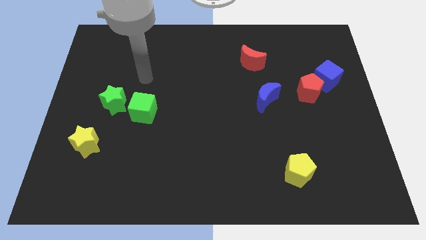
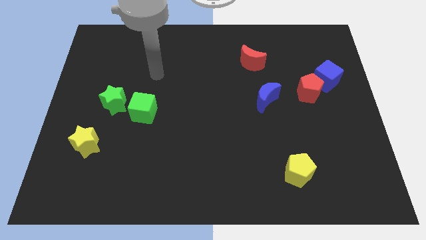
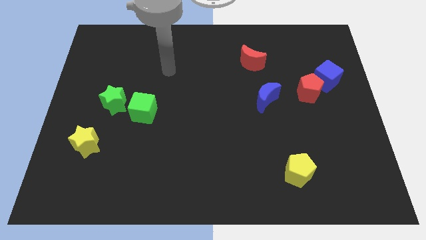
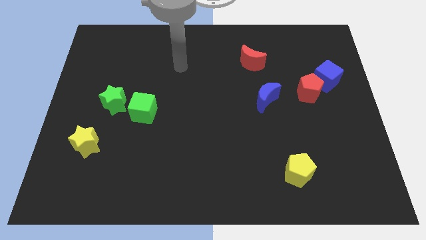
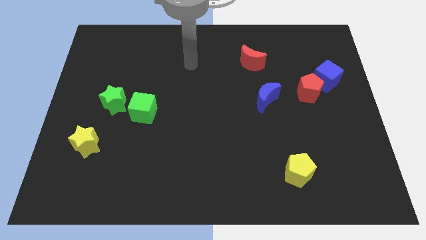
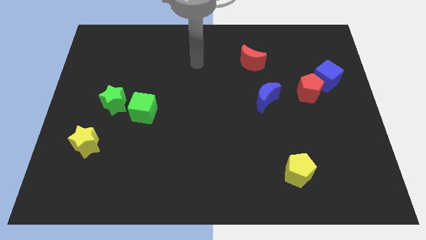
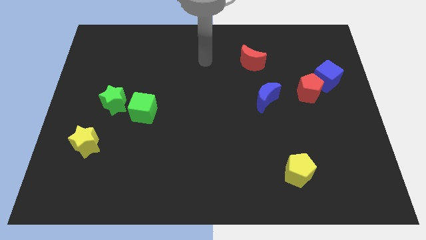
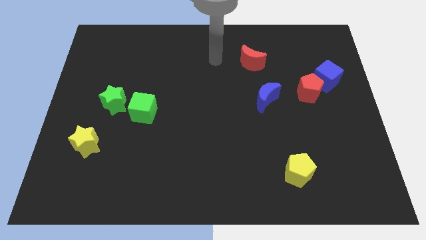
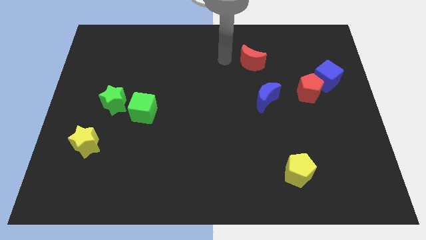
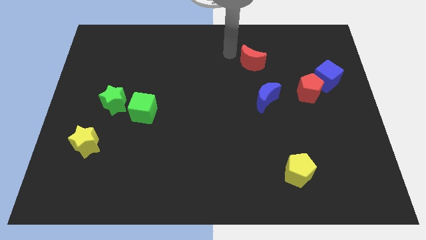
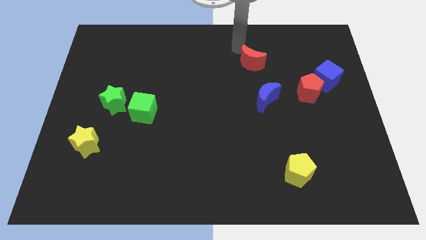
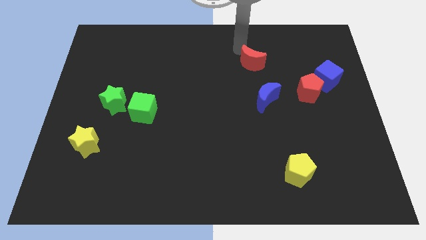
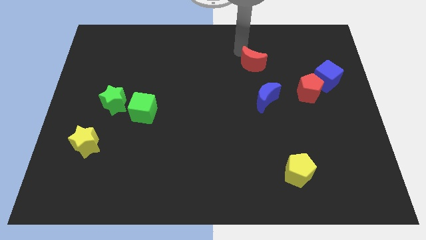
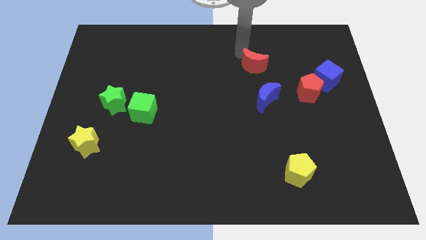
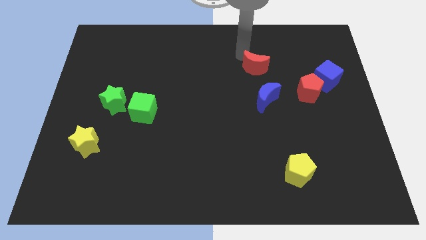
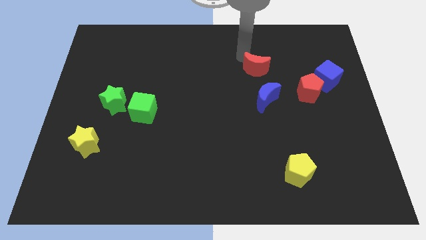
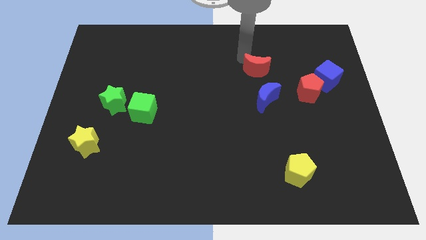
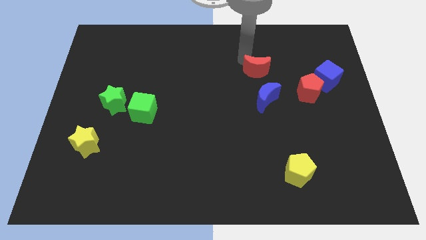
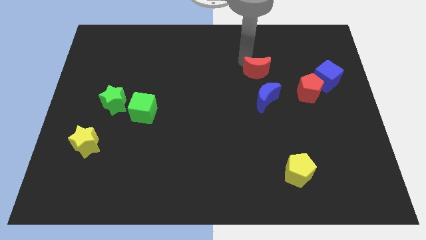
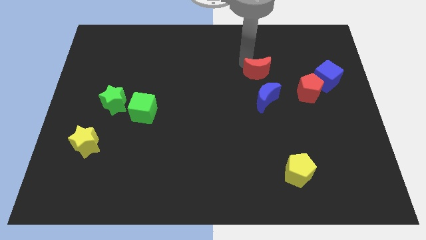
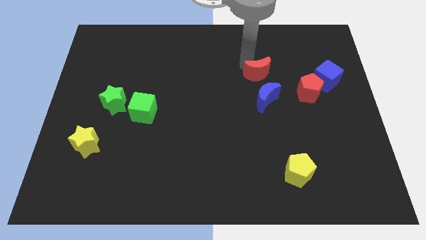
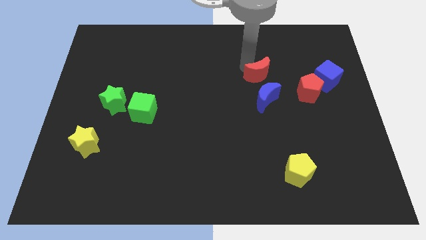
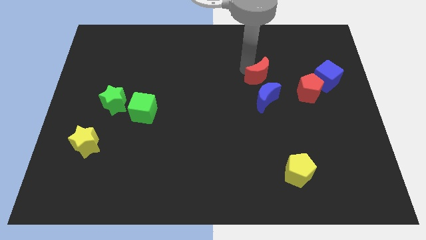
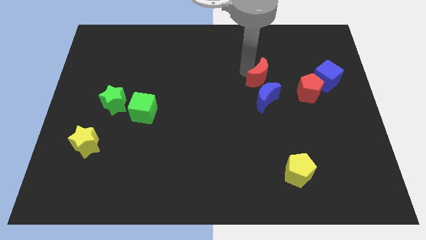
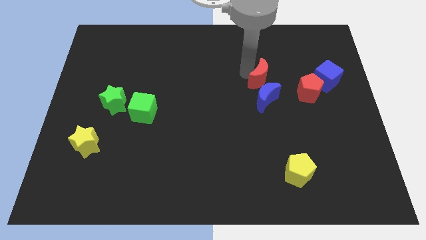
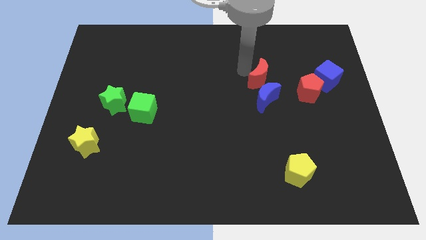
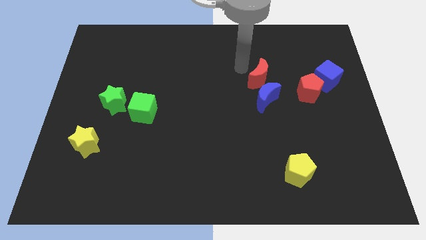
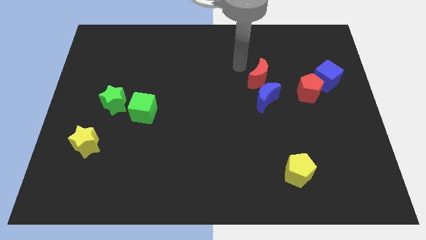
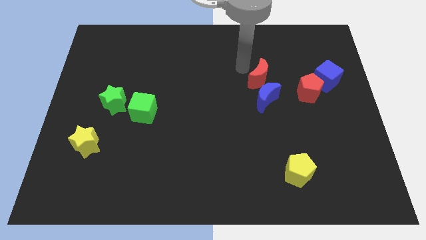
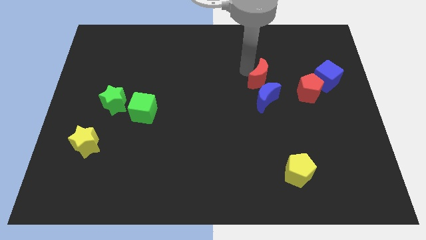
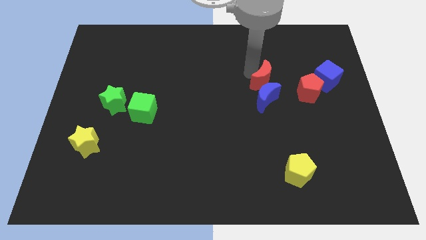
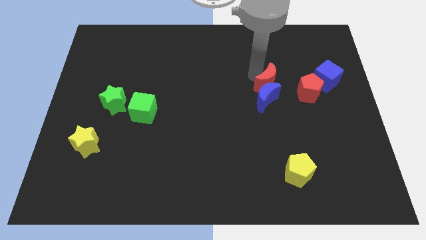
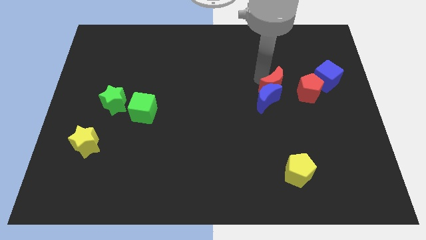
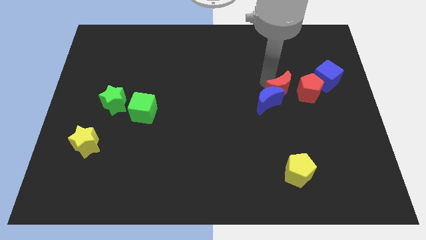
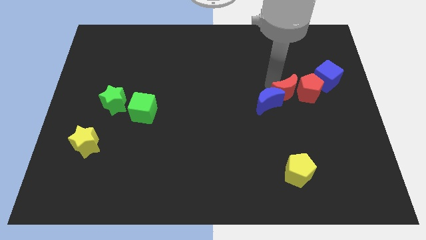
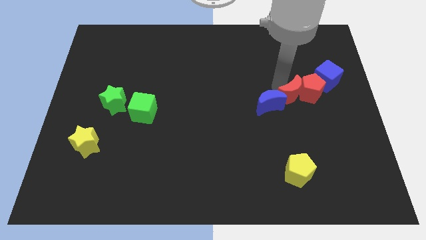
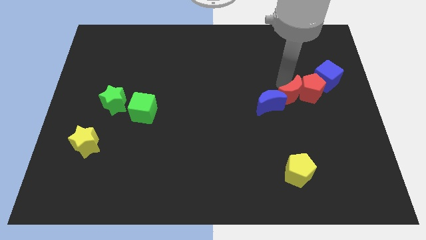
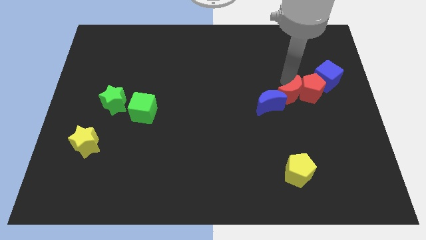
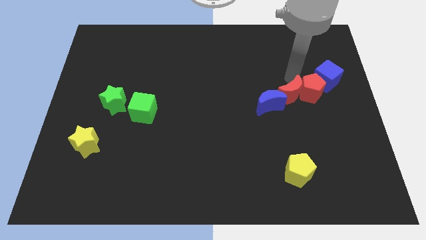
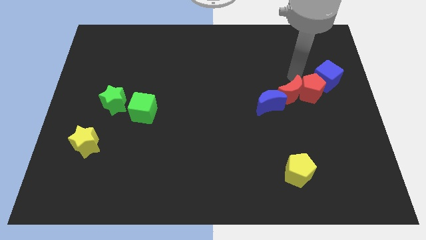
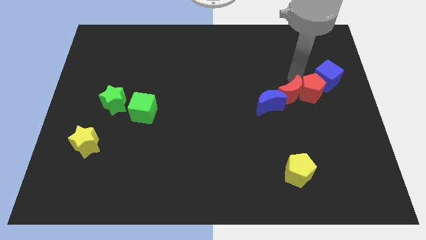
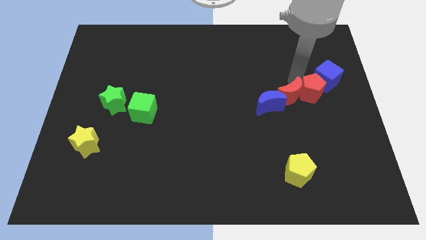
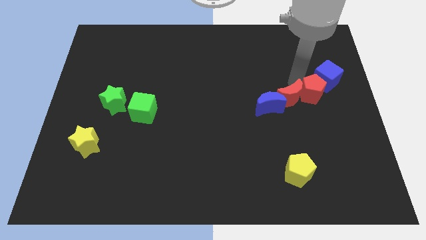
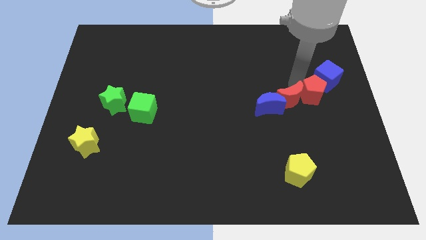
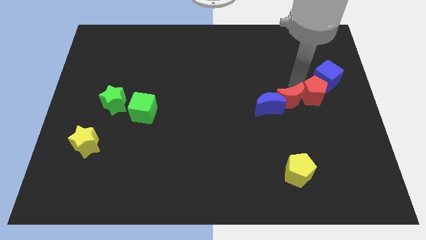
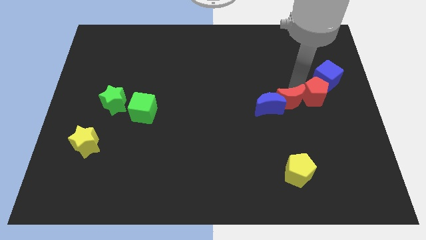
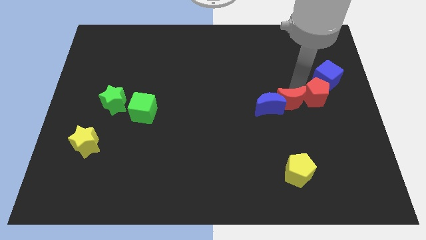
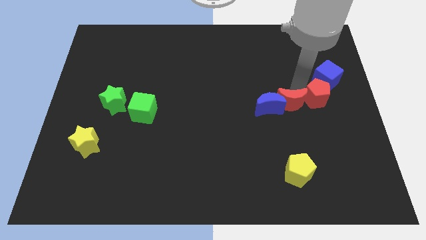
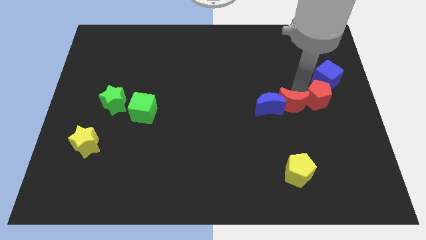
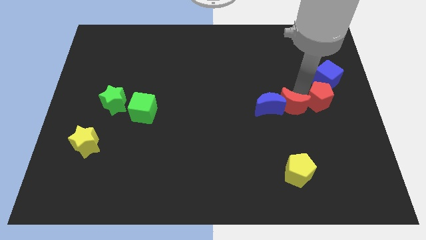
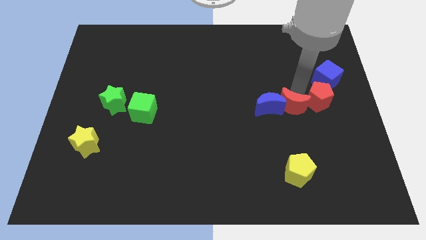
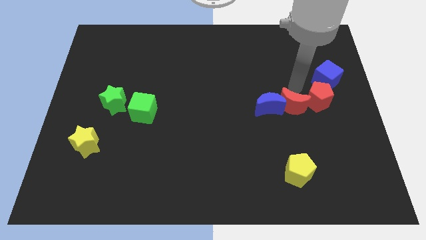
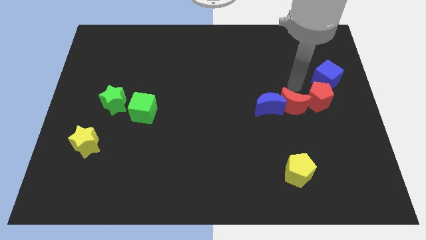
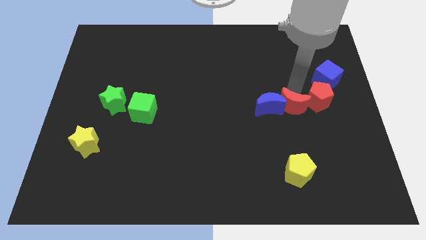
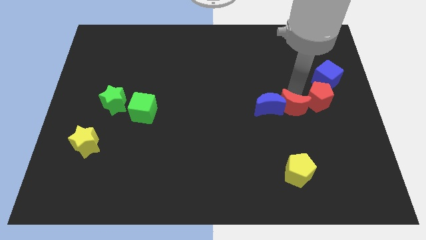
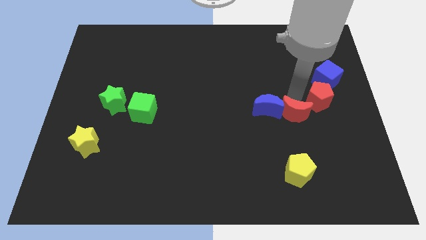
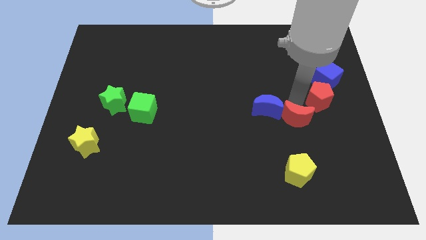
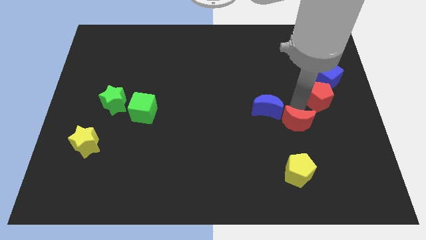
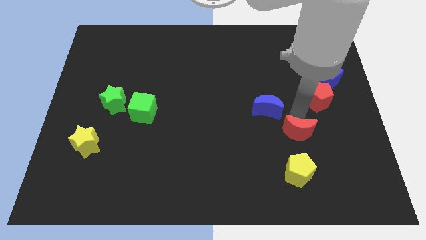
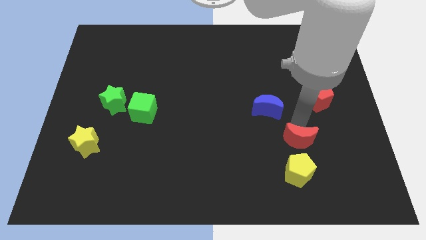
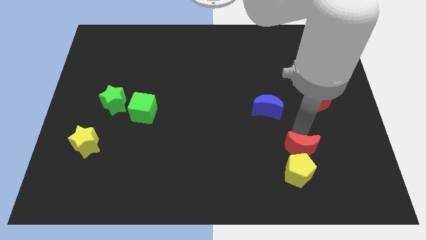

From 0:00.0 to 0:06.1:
put the red moon to the yellow pentagon

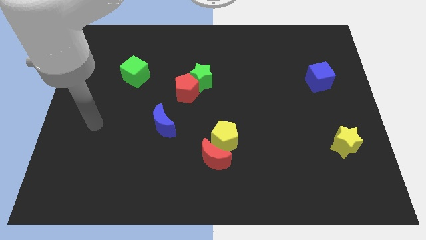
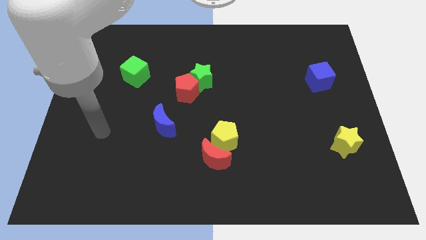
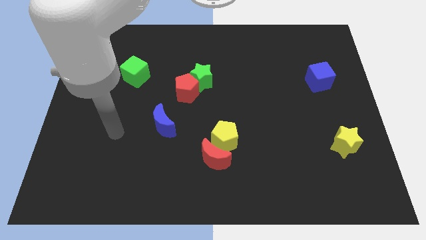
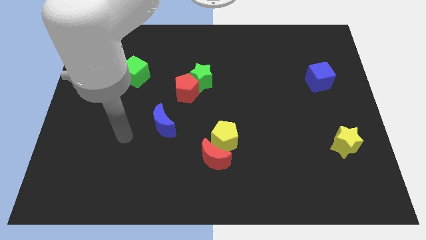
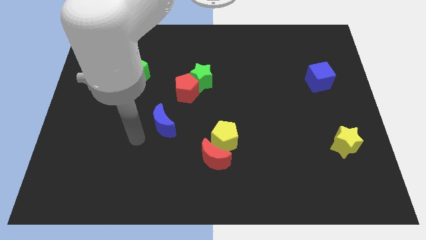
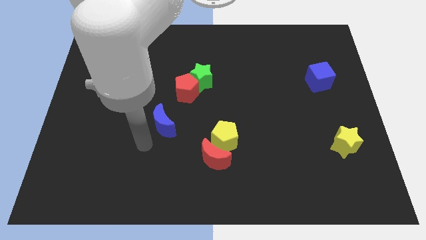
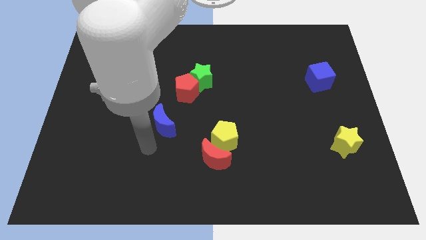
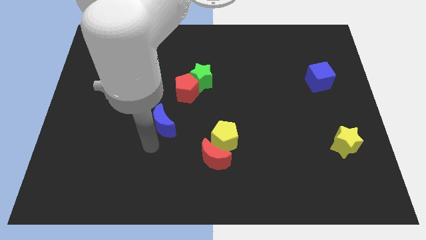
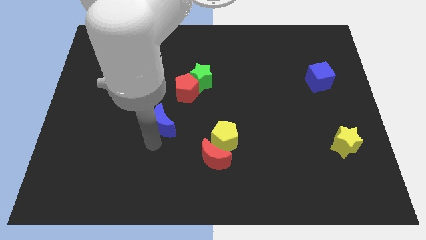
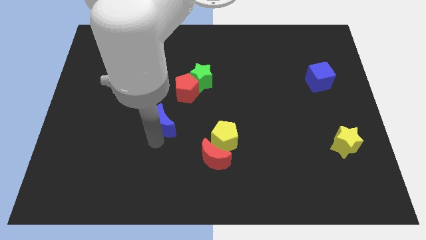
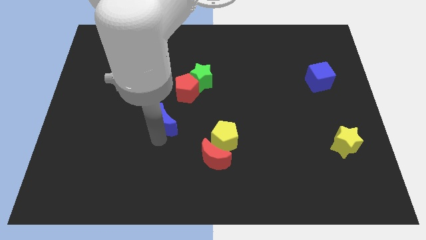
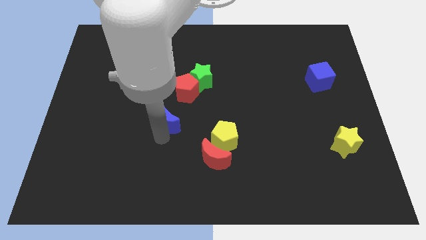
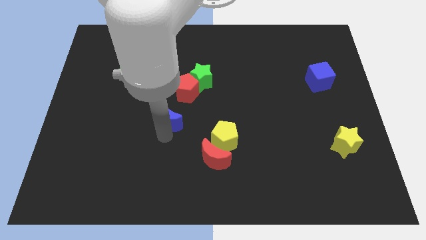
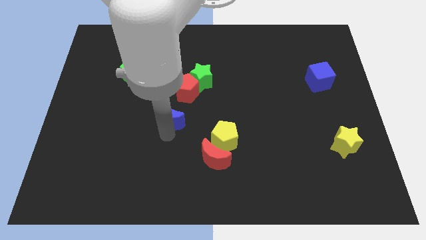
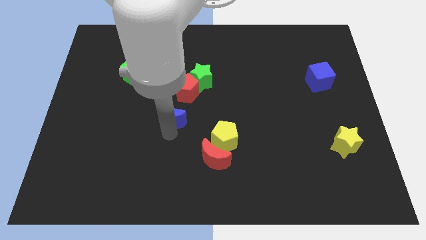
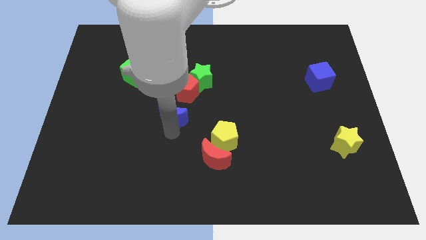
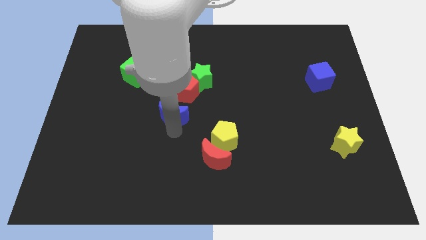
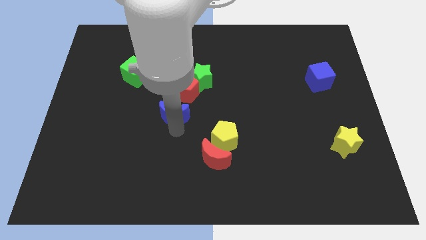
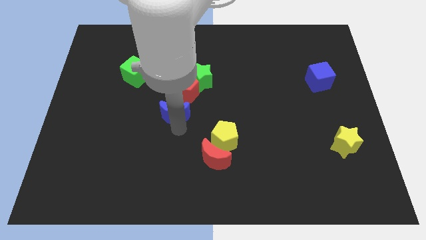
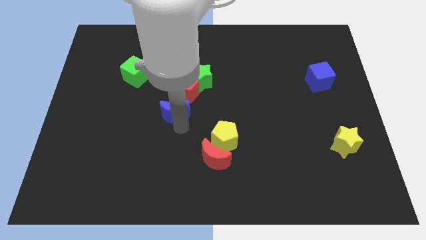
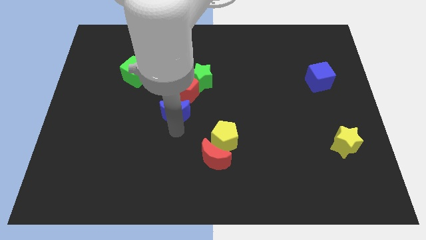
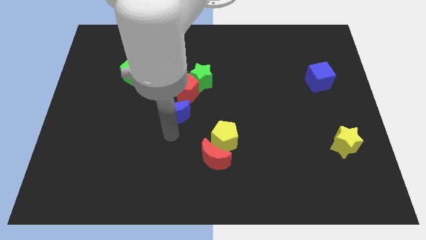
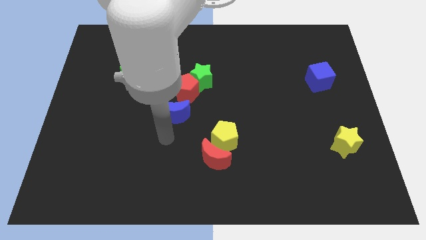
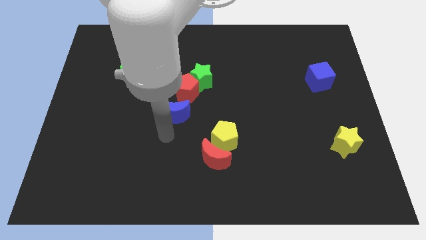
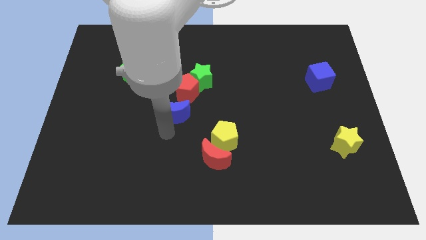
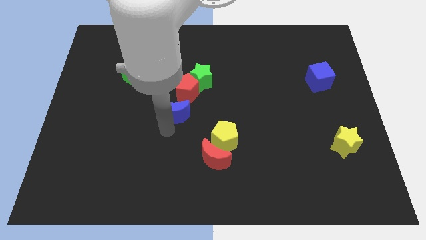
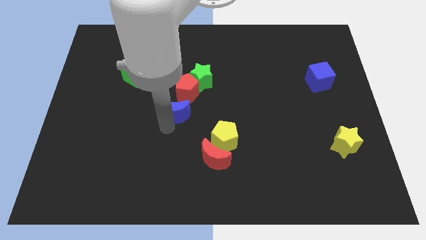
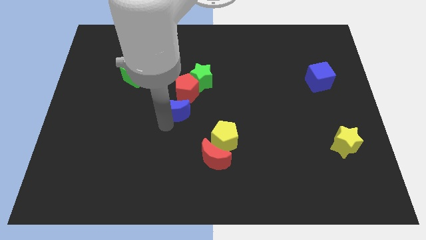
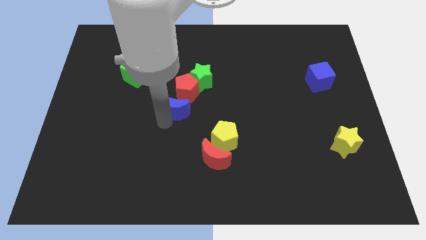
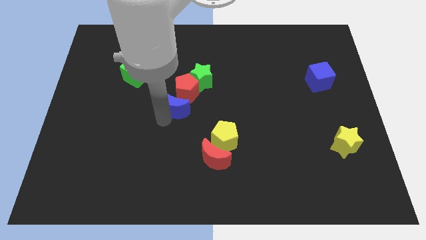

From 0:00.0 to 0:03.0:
move the blue moon next to the red pentagon
